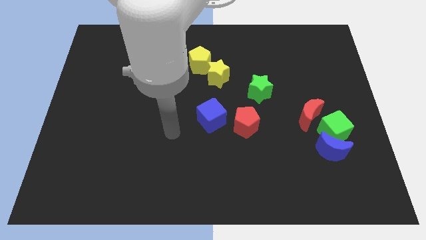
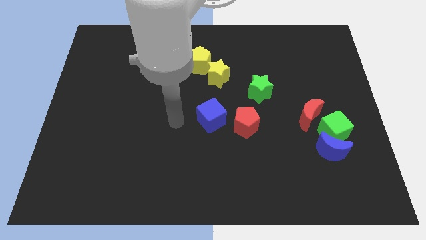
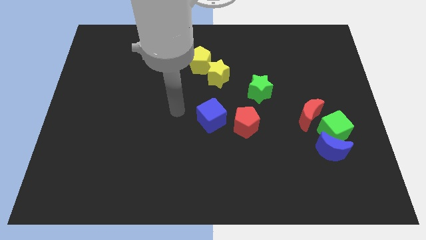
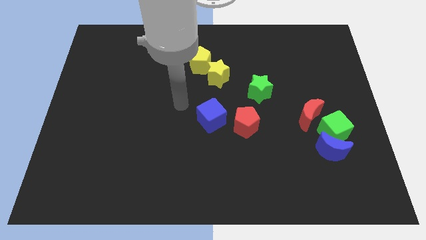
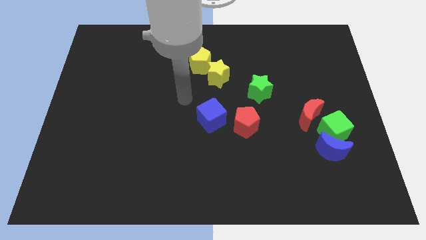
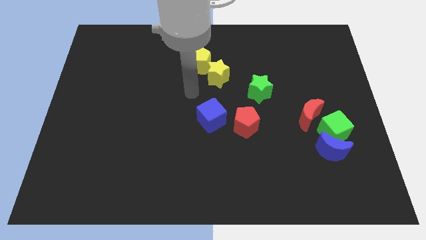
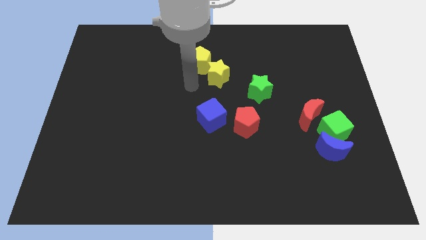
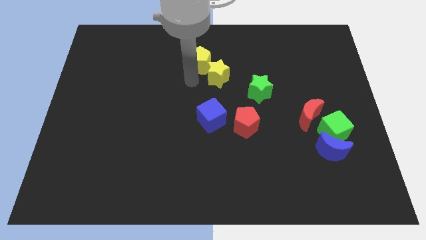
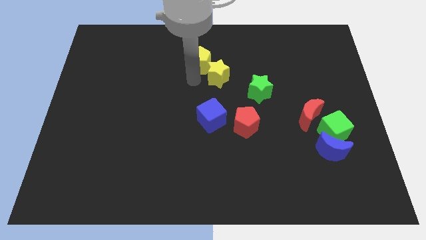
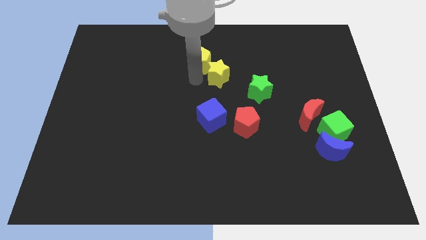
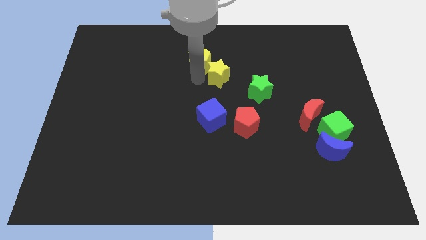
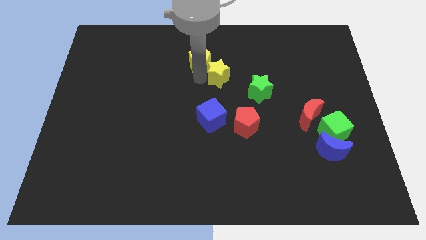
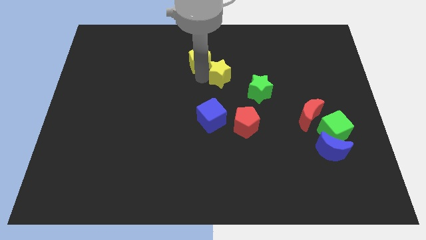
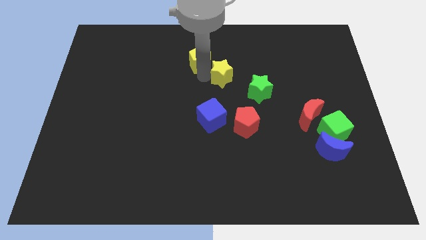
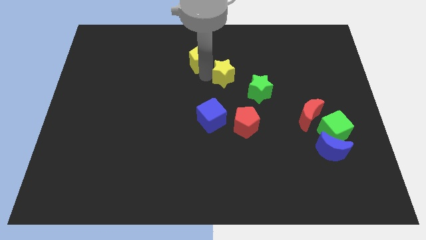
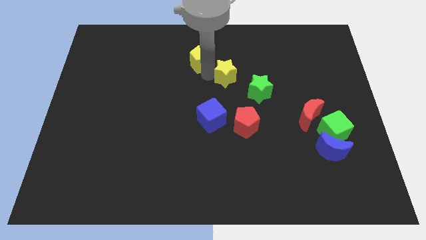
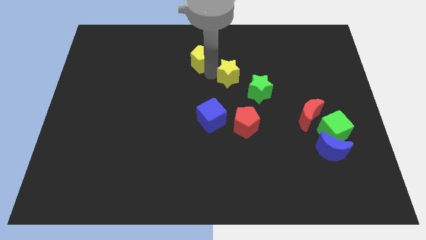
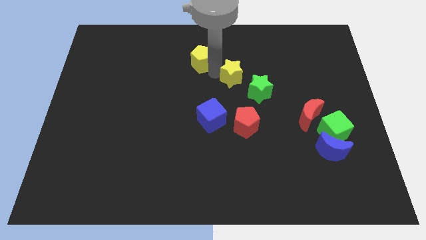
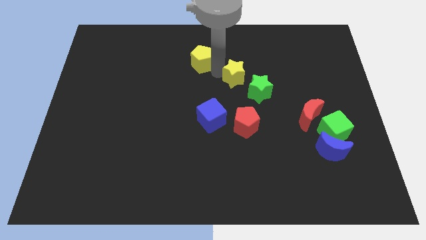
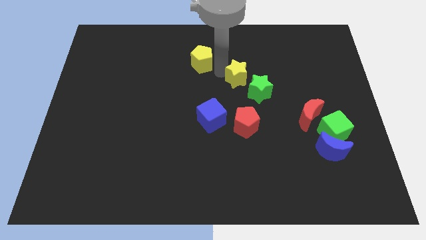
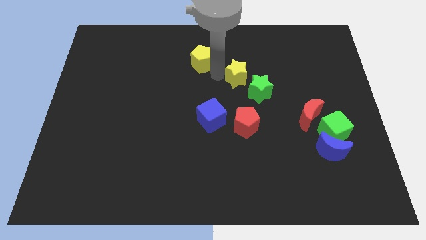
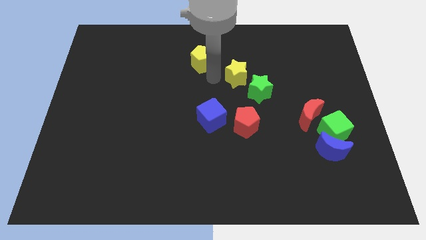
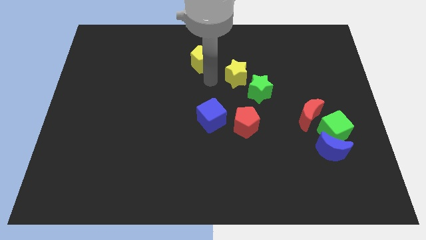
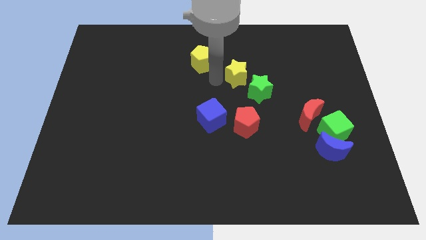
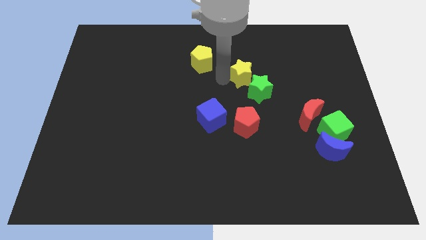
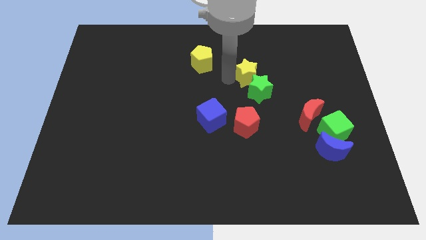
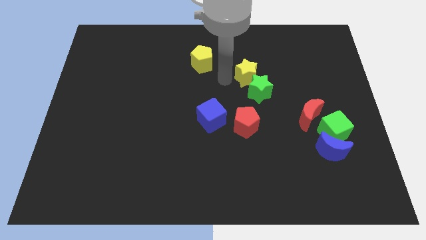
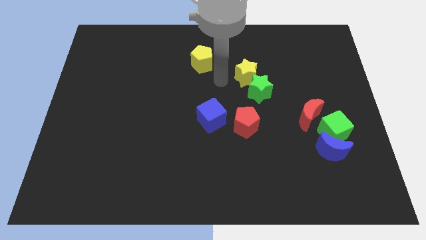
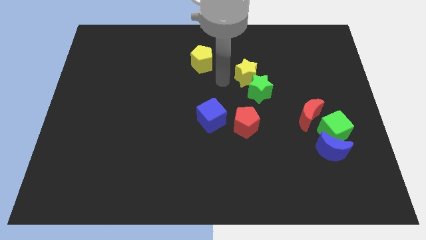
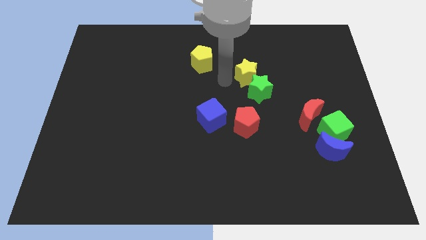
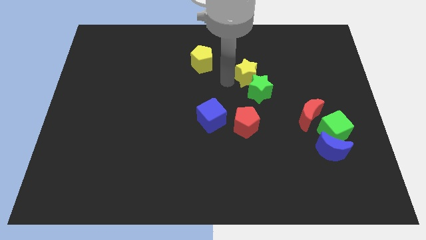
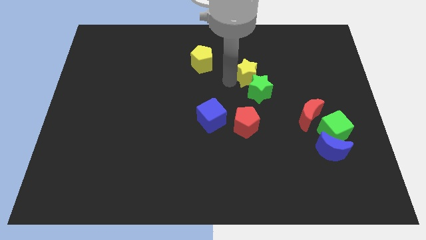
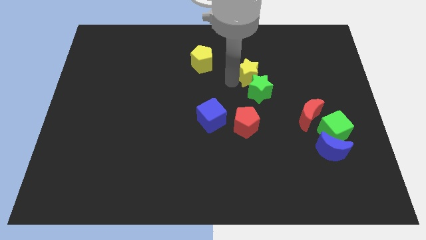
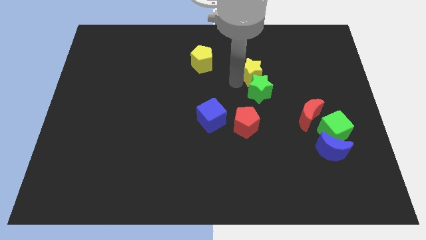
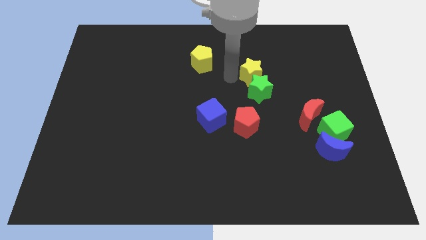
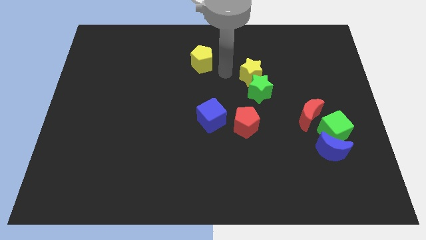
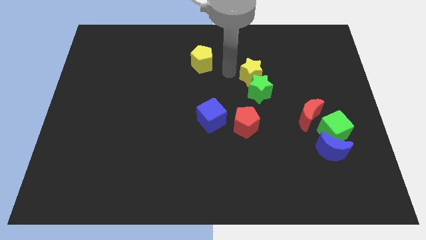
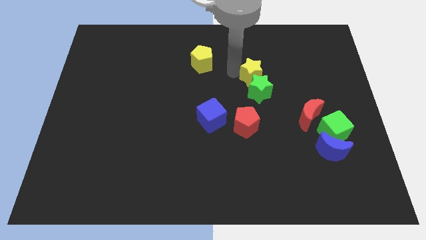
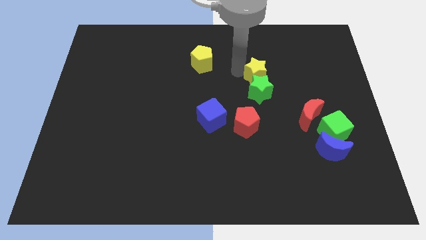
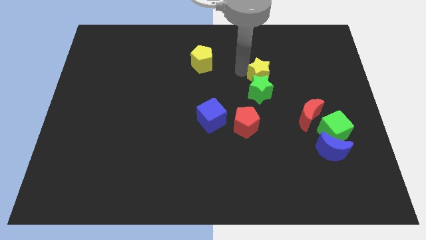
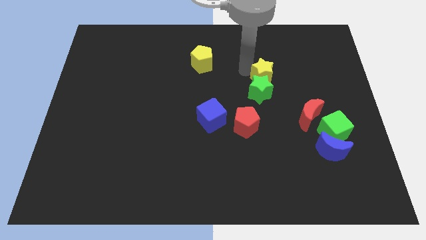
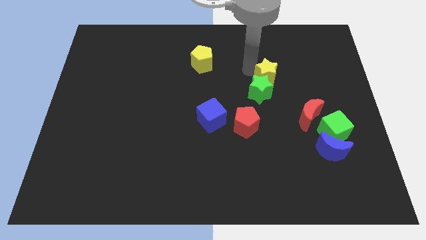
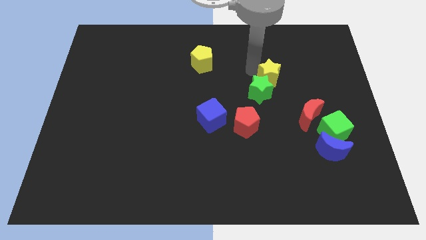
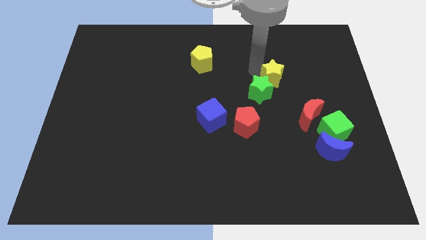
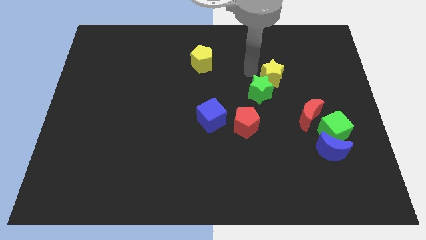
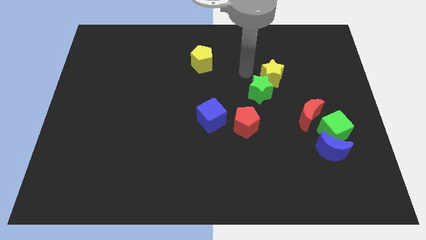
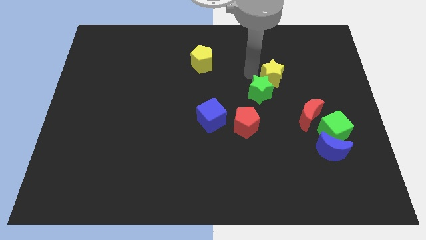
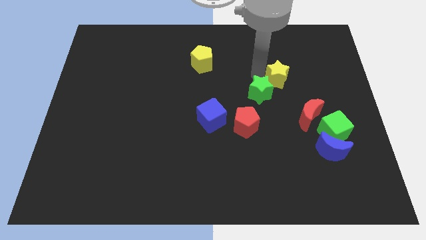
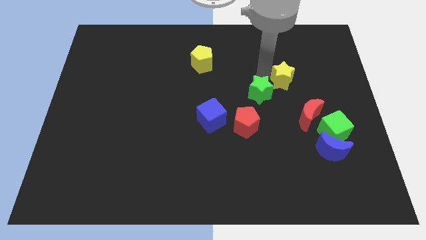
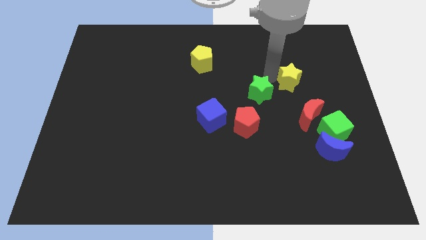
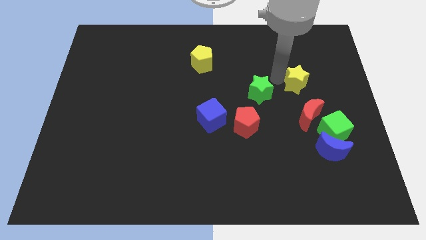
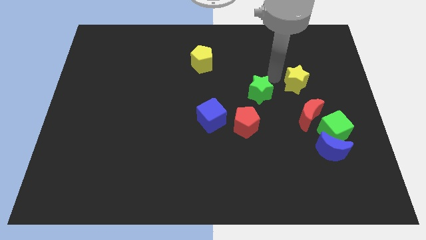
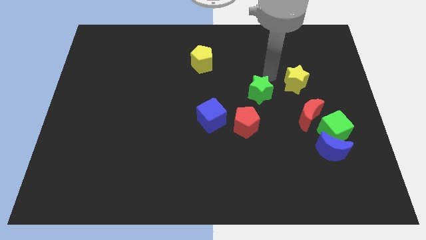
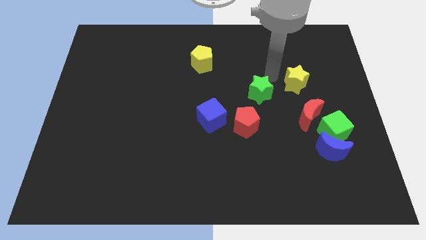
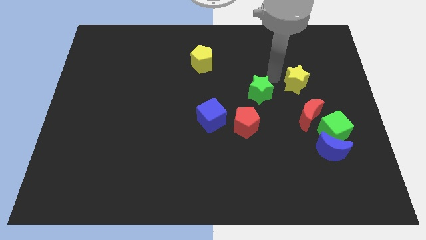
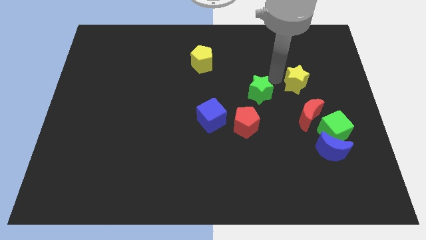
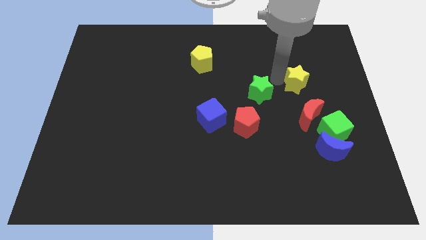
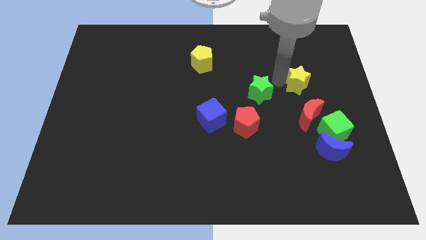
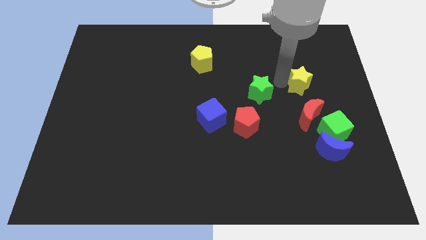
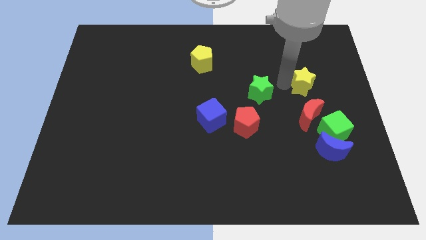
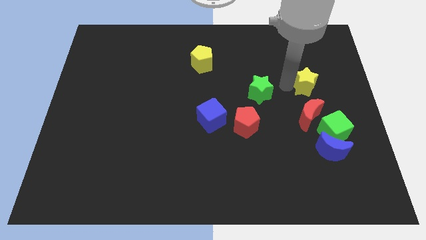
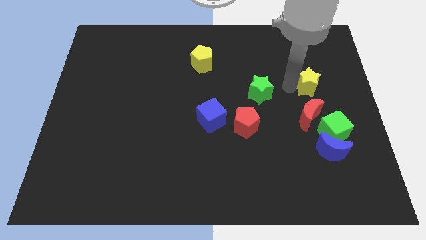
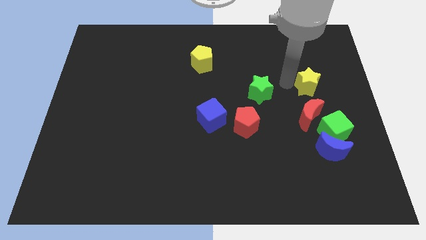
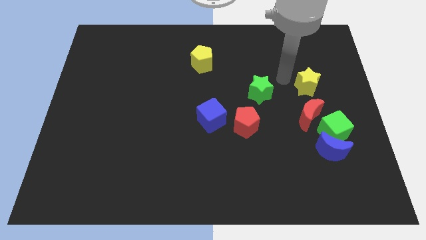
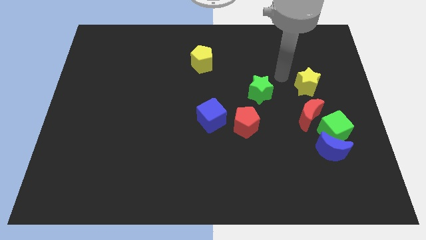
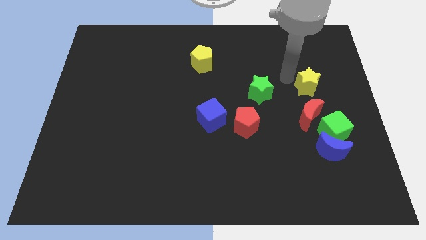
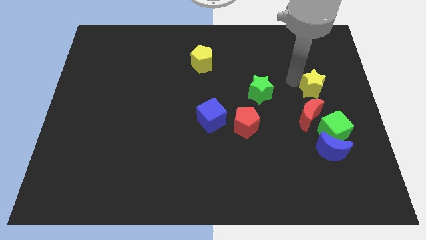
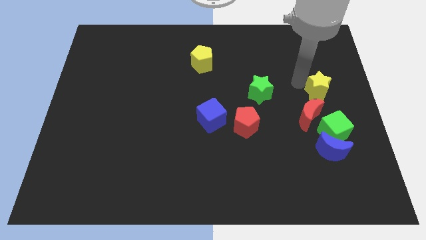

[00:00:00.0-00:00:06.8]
push the yellow star to the right side
